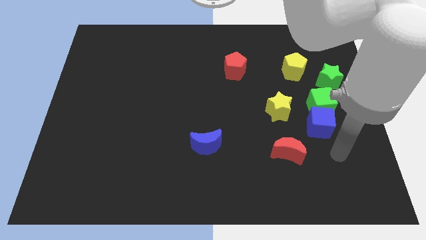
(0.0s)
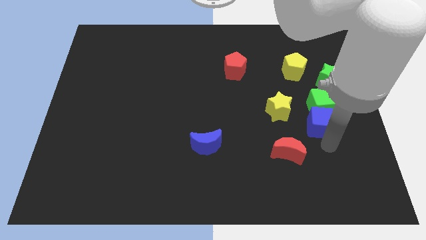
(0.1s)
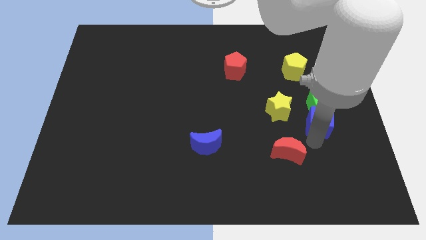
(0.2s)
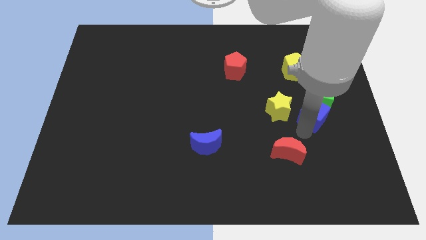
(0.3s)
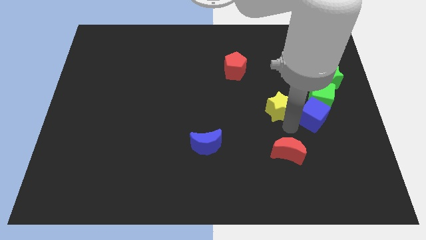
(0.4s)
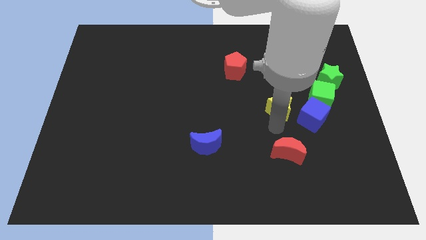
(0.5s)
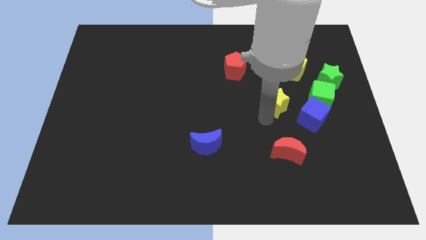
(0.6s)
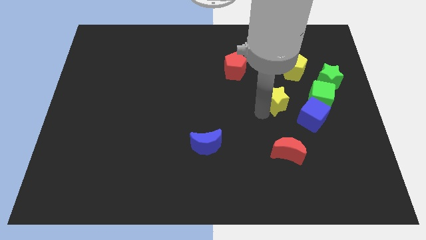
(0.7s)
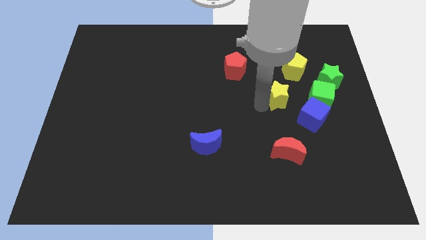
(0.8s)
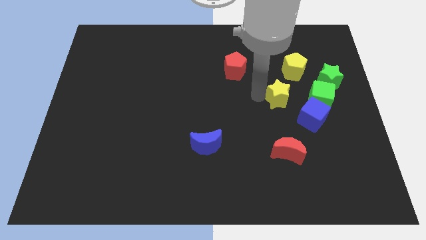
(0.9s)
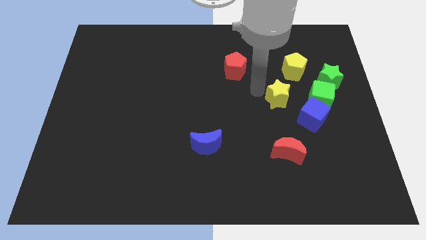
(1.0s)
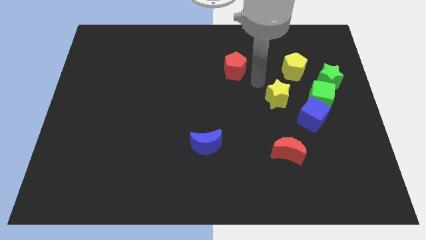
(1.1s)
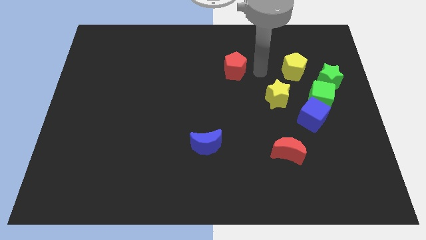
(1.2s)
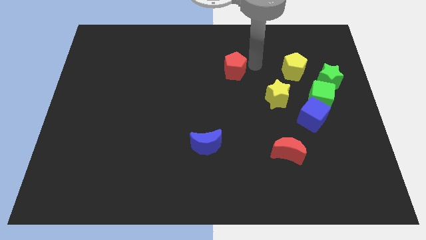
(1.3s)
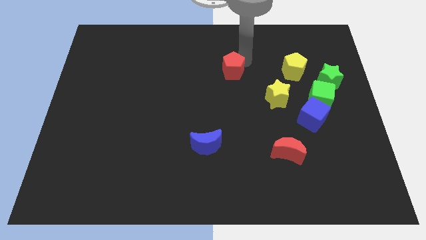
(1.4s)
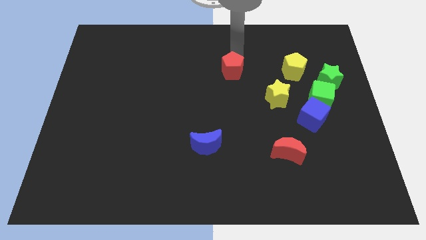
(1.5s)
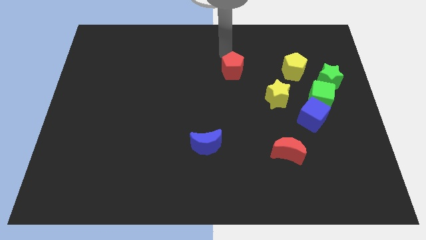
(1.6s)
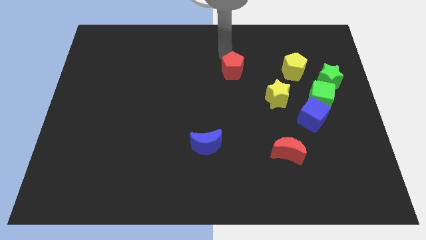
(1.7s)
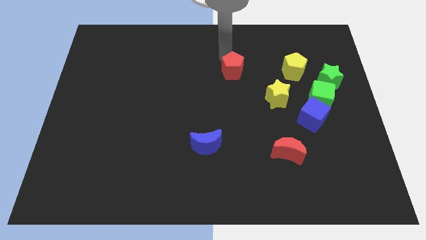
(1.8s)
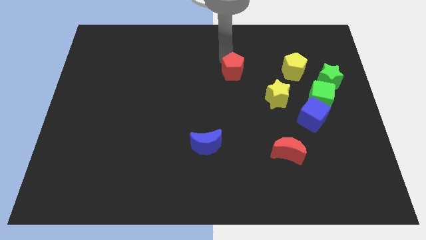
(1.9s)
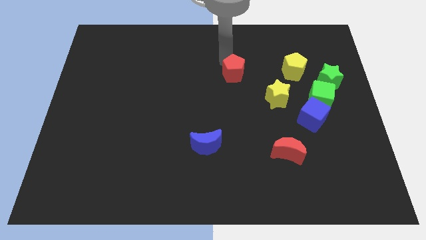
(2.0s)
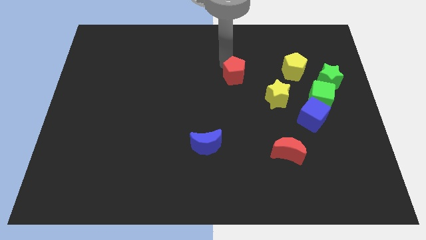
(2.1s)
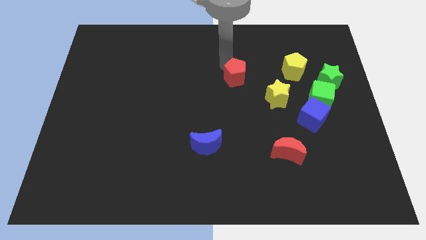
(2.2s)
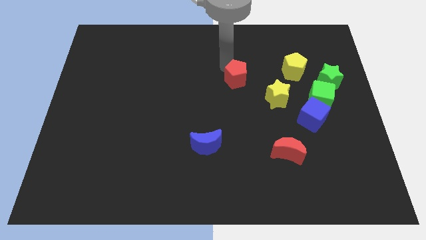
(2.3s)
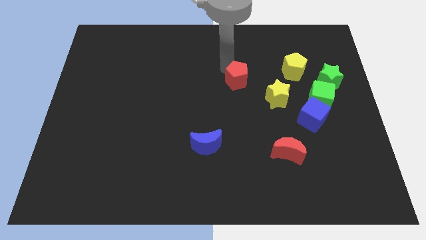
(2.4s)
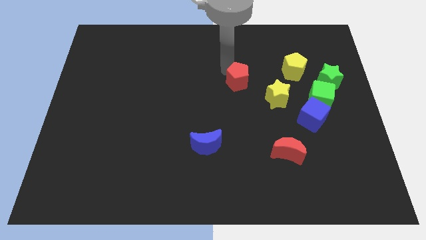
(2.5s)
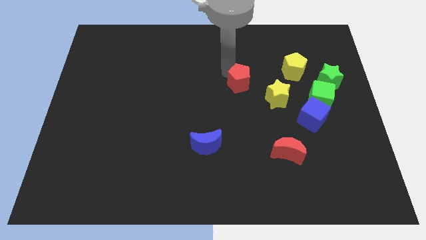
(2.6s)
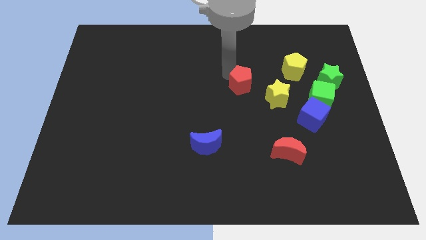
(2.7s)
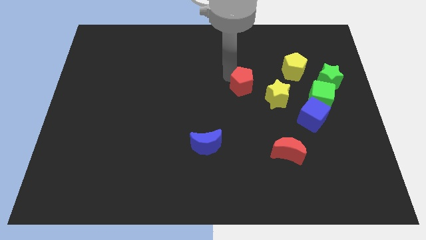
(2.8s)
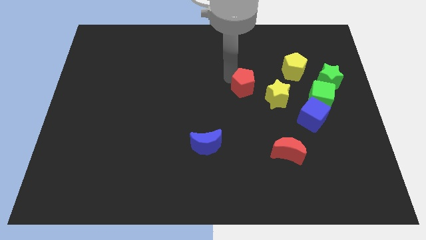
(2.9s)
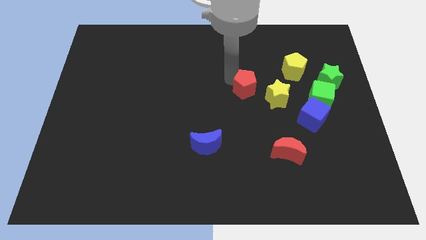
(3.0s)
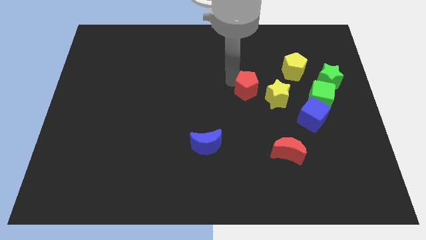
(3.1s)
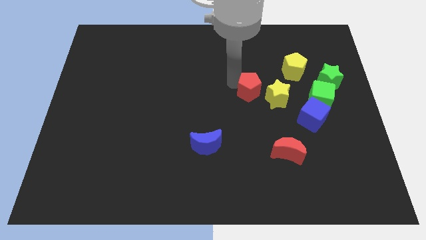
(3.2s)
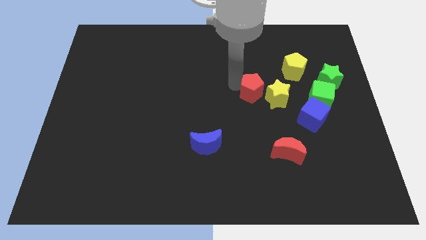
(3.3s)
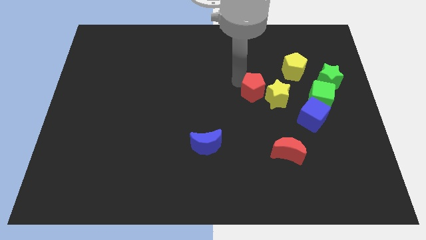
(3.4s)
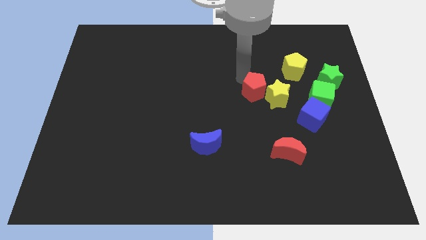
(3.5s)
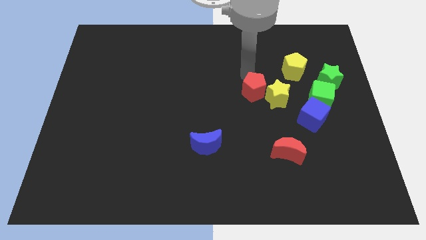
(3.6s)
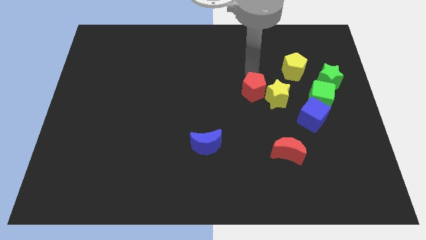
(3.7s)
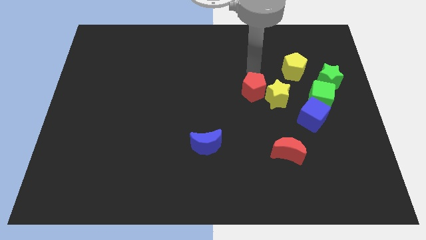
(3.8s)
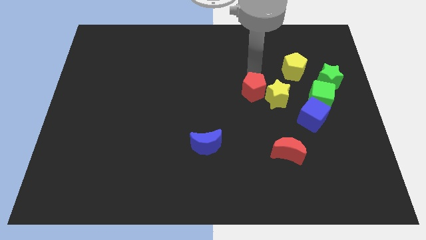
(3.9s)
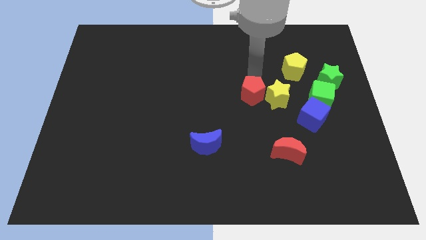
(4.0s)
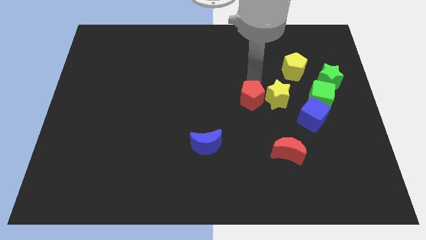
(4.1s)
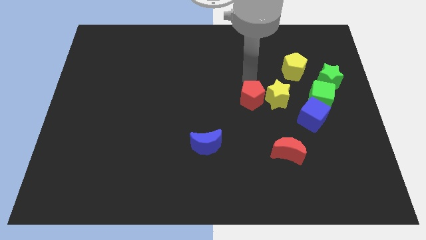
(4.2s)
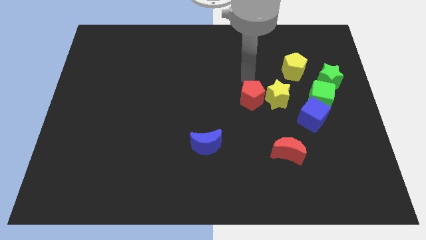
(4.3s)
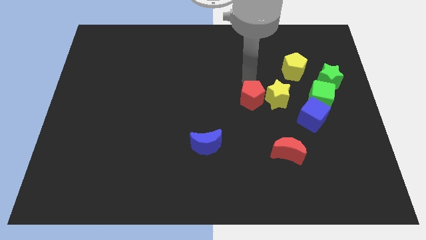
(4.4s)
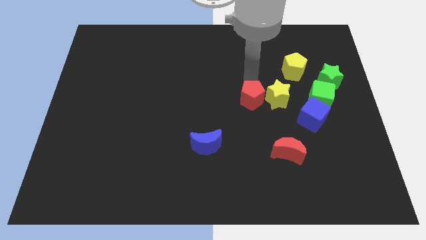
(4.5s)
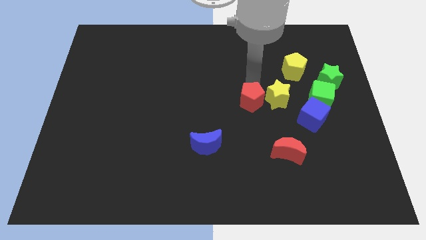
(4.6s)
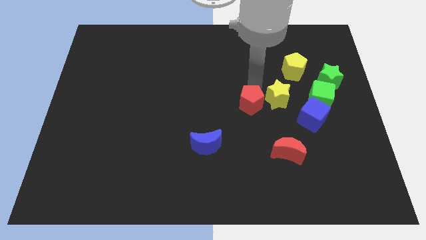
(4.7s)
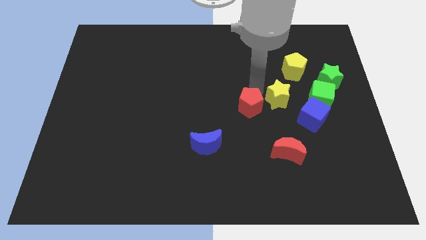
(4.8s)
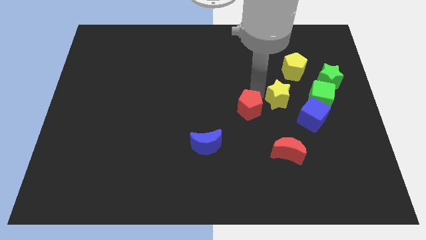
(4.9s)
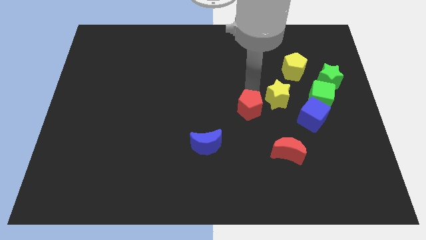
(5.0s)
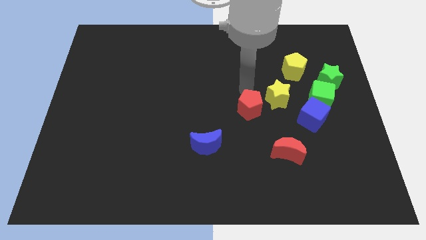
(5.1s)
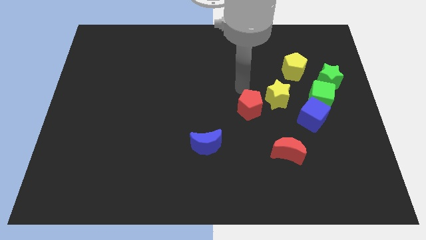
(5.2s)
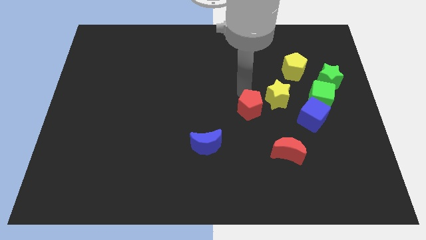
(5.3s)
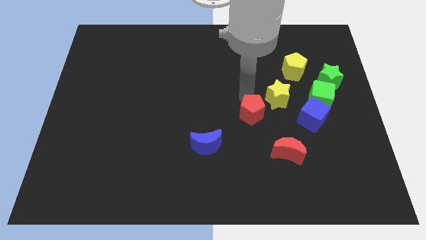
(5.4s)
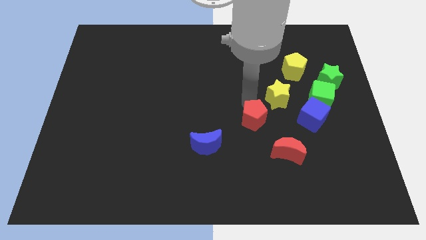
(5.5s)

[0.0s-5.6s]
slide the red pentagon diagonally up and to the left of the red moon

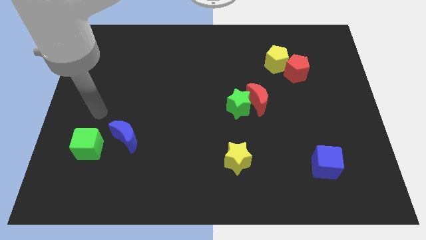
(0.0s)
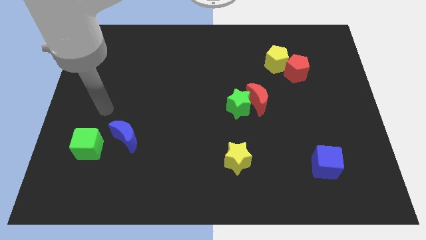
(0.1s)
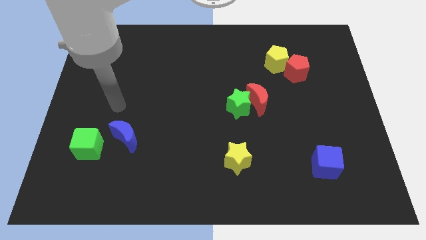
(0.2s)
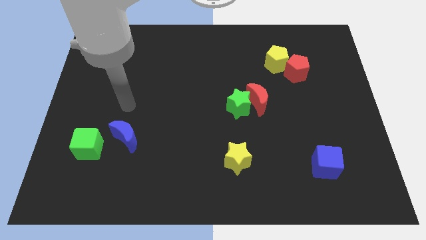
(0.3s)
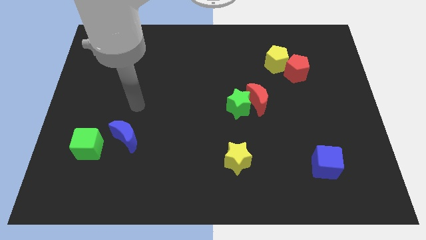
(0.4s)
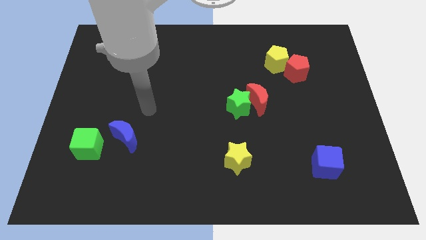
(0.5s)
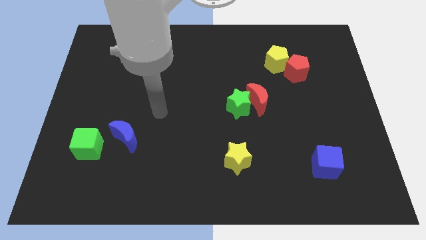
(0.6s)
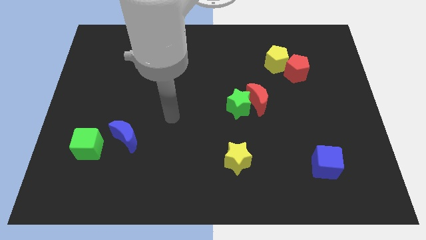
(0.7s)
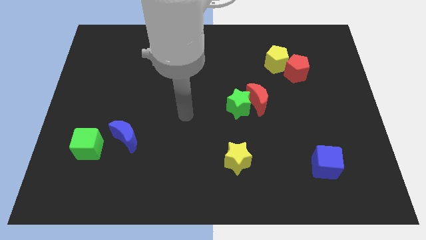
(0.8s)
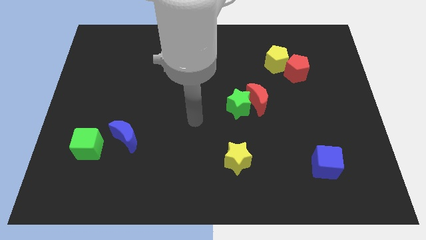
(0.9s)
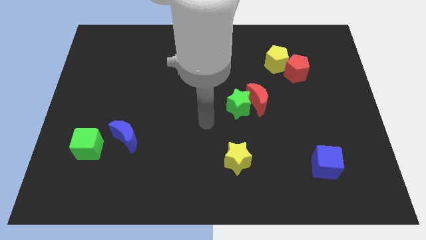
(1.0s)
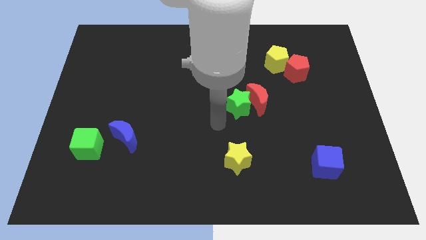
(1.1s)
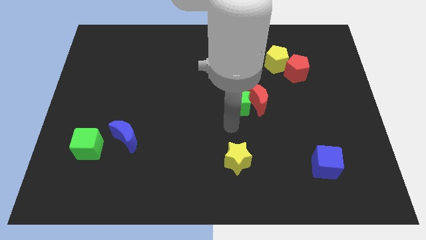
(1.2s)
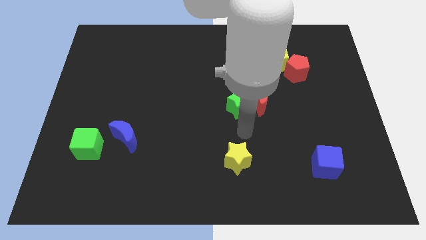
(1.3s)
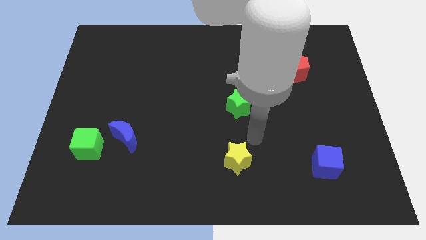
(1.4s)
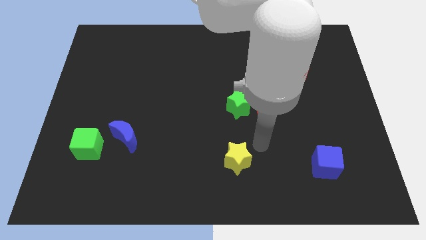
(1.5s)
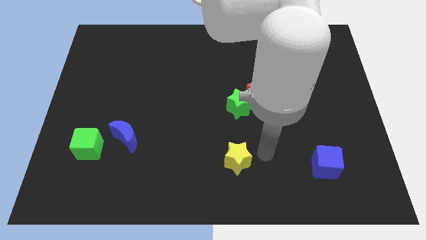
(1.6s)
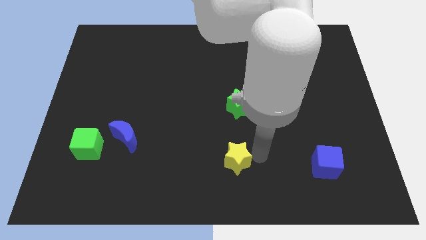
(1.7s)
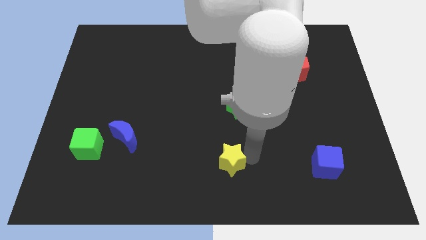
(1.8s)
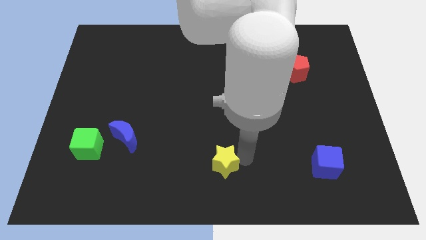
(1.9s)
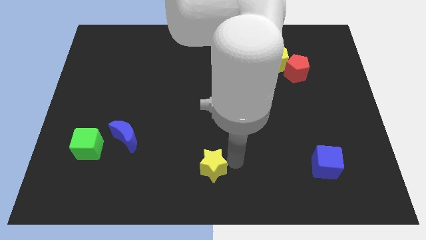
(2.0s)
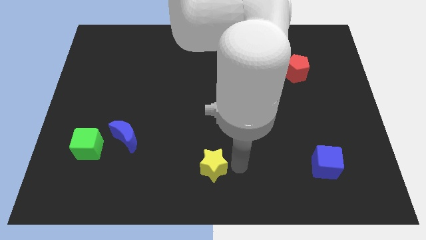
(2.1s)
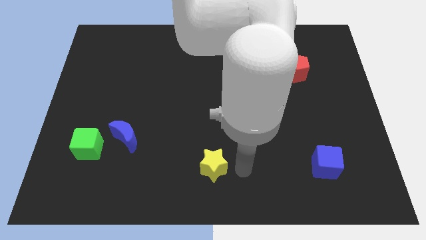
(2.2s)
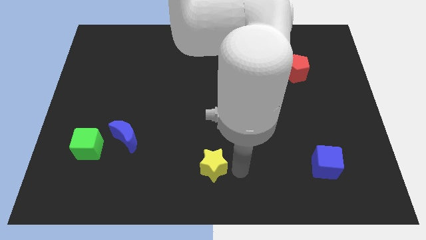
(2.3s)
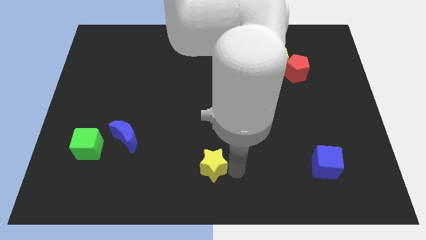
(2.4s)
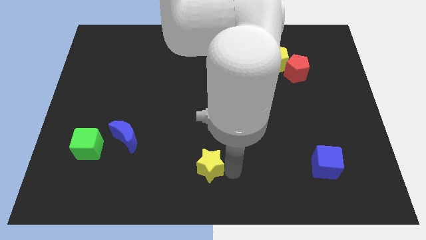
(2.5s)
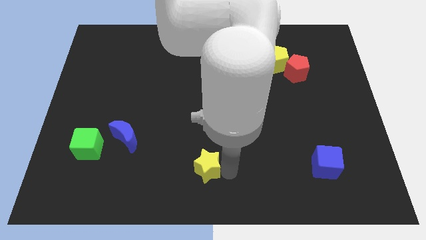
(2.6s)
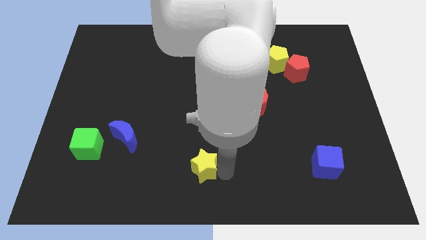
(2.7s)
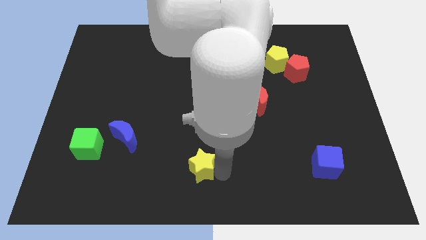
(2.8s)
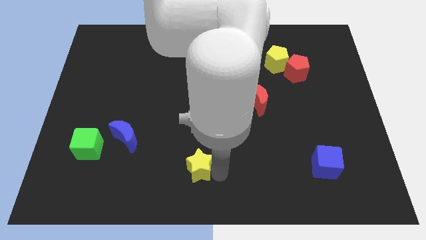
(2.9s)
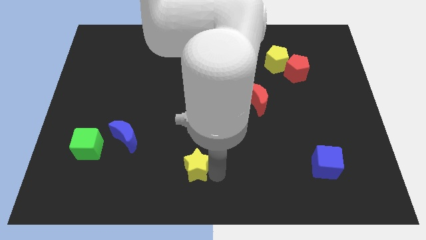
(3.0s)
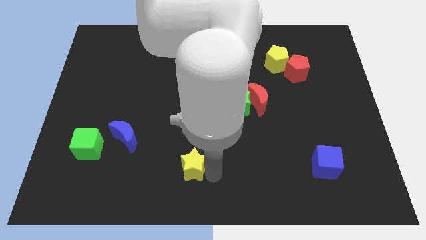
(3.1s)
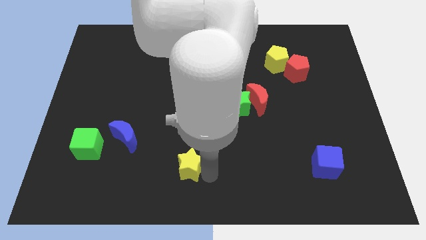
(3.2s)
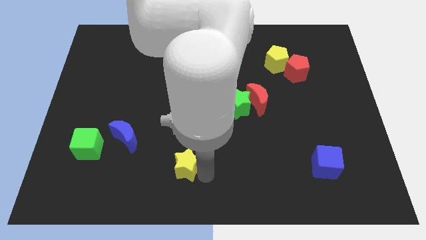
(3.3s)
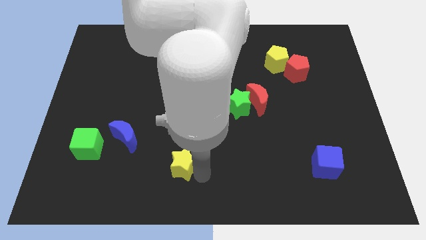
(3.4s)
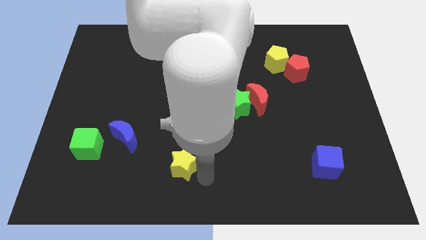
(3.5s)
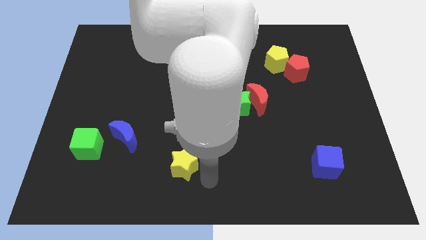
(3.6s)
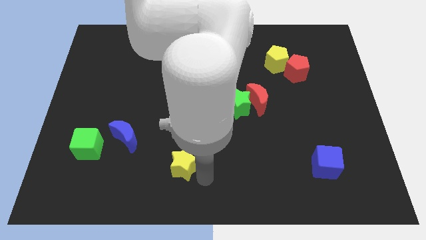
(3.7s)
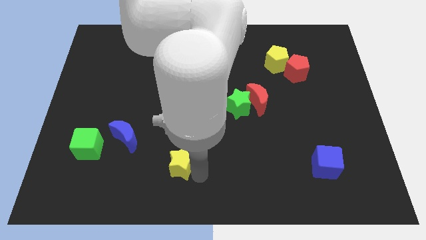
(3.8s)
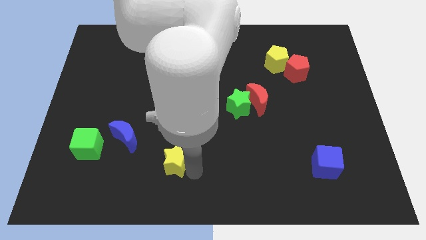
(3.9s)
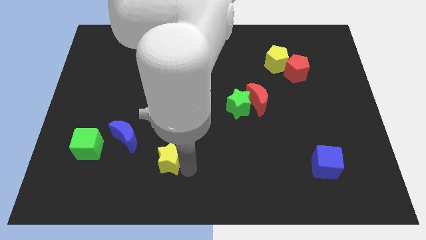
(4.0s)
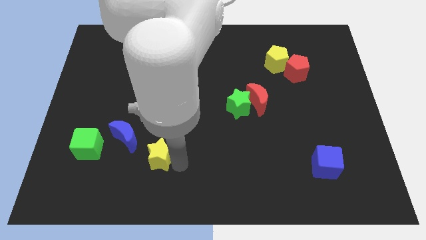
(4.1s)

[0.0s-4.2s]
put the yellow star right of the green cube
